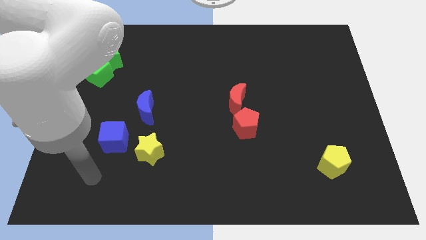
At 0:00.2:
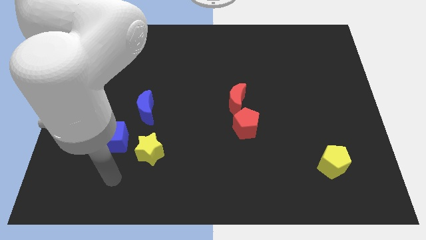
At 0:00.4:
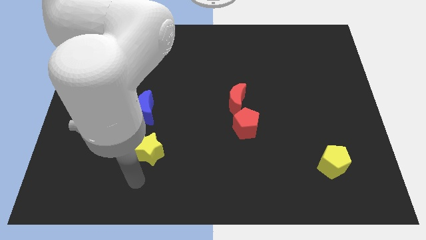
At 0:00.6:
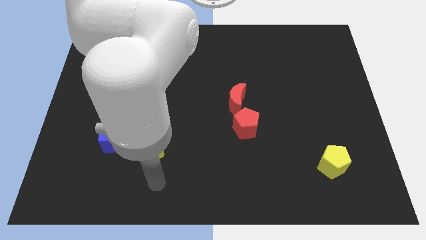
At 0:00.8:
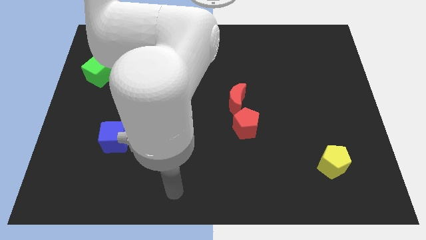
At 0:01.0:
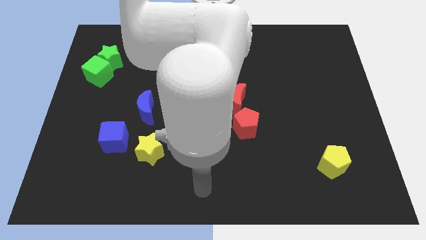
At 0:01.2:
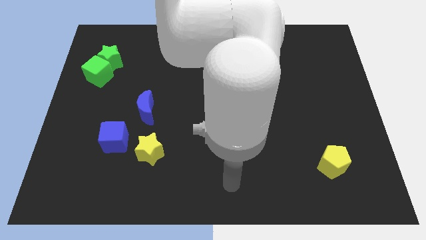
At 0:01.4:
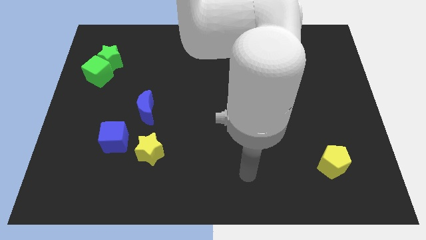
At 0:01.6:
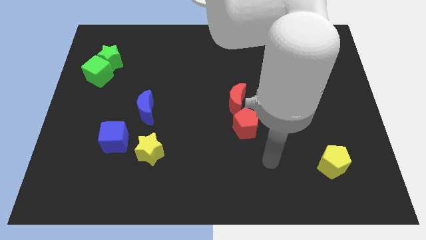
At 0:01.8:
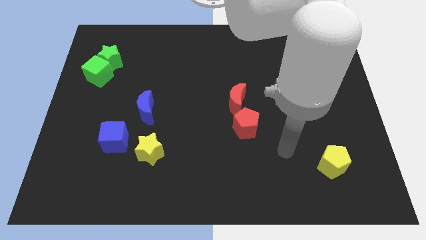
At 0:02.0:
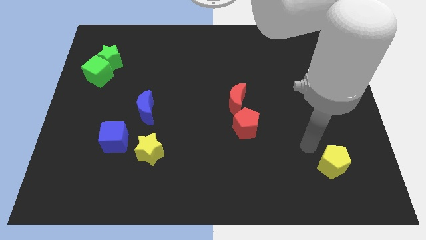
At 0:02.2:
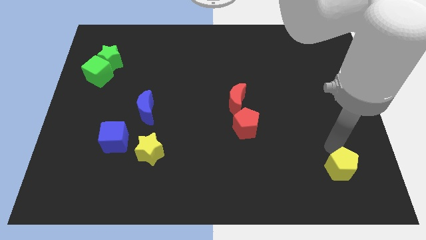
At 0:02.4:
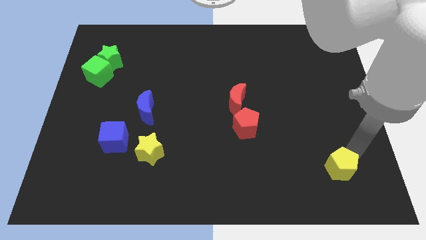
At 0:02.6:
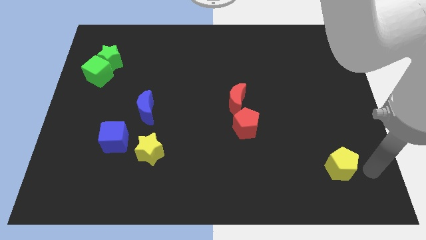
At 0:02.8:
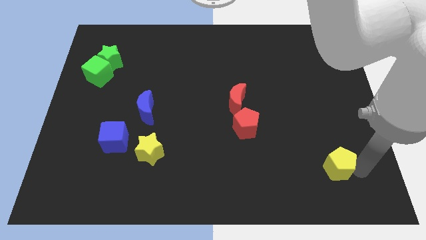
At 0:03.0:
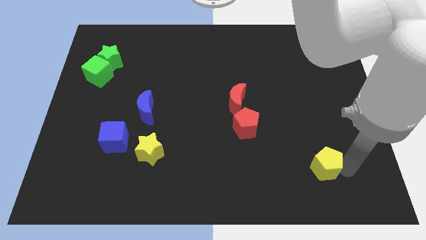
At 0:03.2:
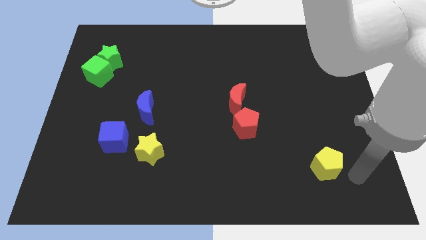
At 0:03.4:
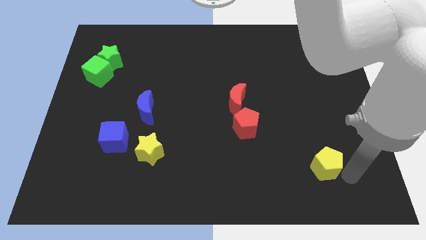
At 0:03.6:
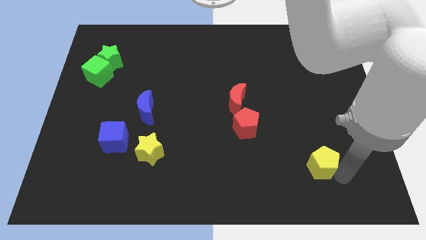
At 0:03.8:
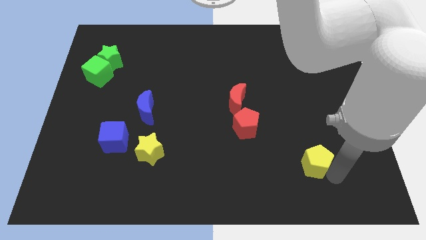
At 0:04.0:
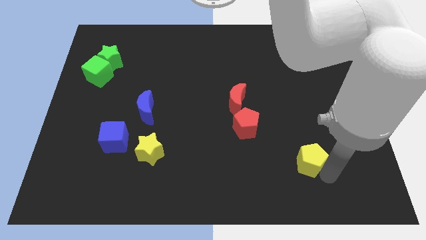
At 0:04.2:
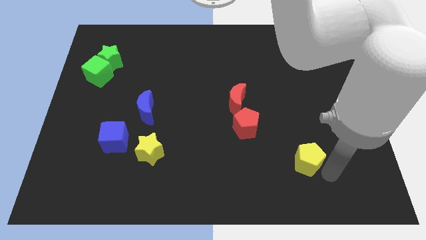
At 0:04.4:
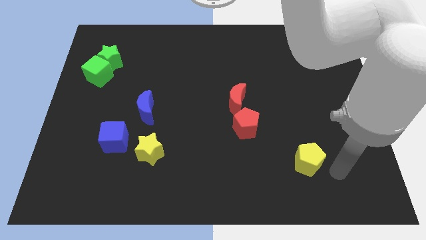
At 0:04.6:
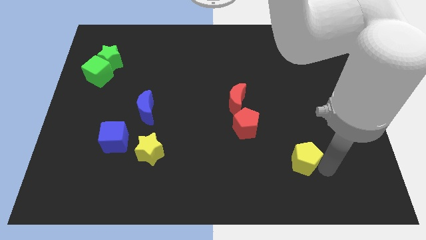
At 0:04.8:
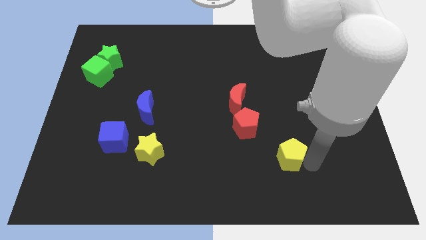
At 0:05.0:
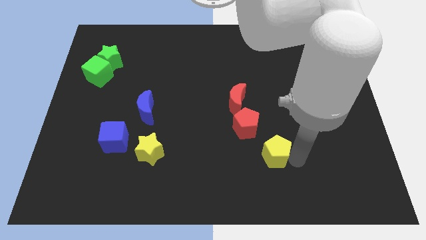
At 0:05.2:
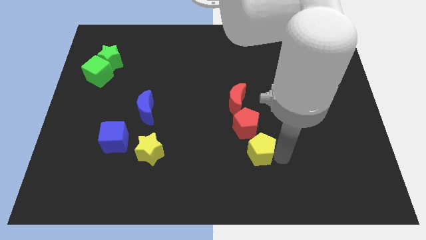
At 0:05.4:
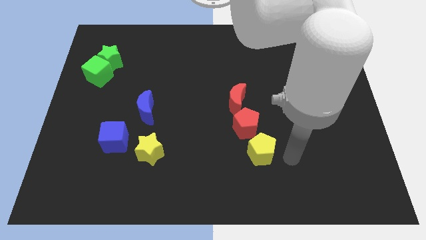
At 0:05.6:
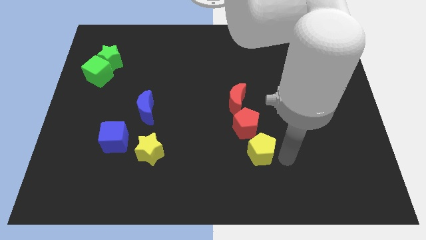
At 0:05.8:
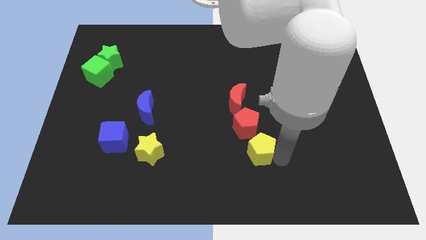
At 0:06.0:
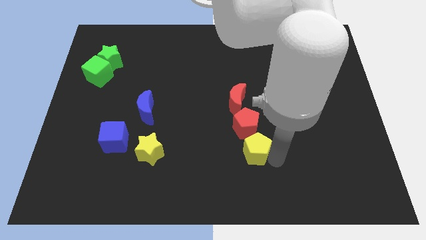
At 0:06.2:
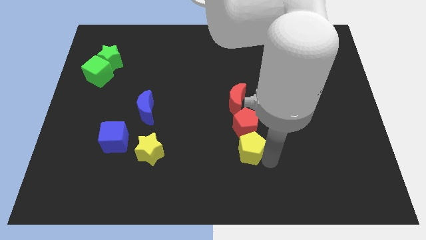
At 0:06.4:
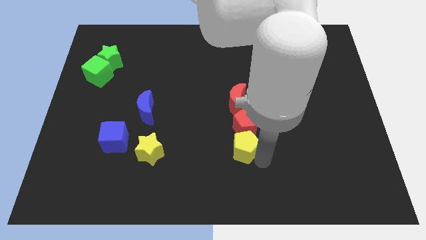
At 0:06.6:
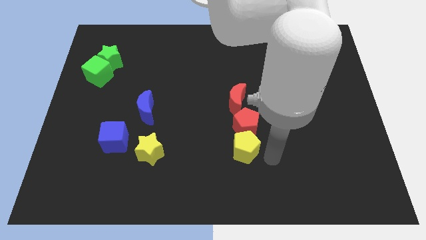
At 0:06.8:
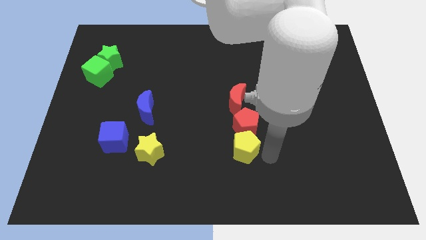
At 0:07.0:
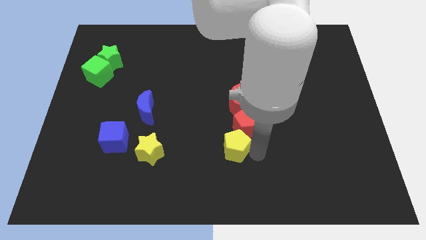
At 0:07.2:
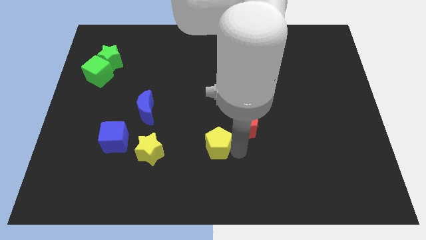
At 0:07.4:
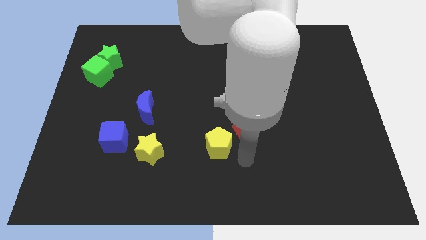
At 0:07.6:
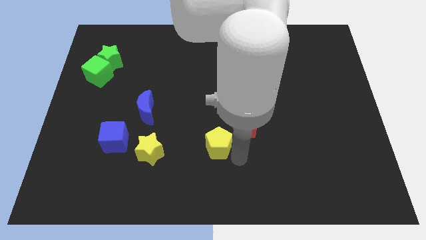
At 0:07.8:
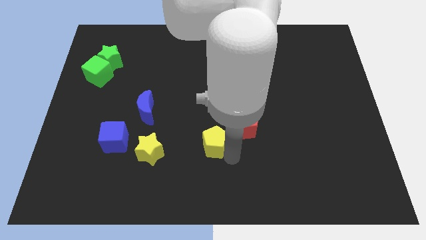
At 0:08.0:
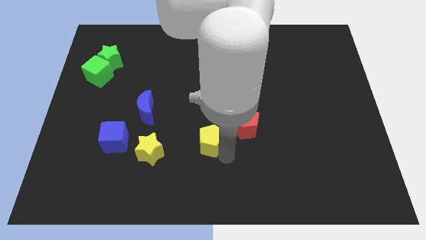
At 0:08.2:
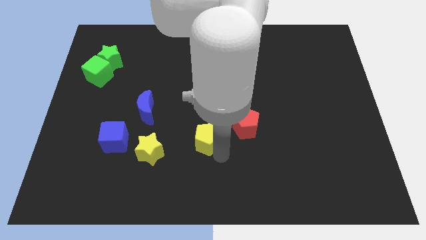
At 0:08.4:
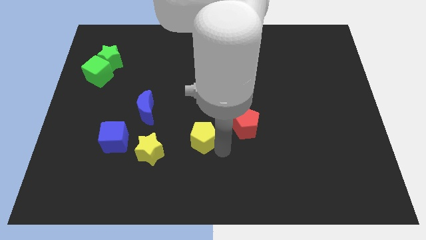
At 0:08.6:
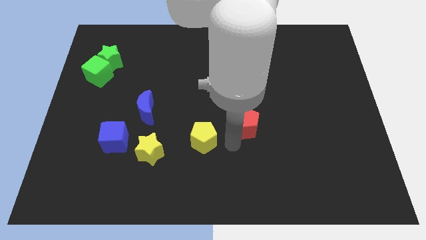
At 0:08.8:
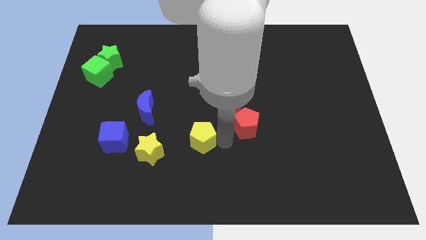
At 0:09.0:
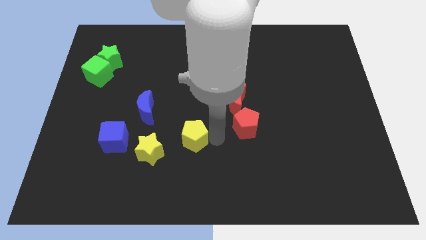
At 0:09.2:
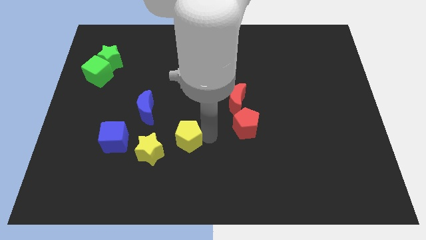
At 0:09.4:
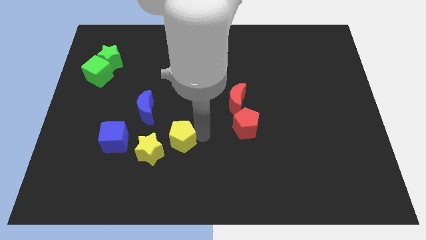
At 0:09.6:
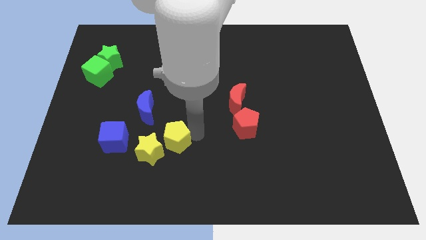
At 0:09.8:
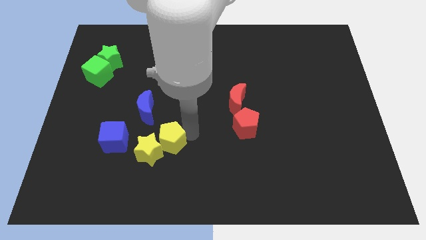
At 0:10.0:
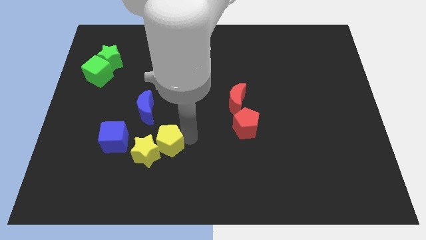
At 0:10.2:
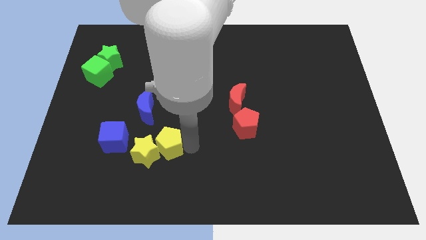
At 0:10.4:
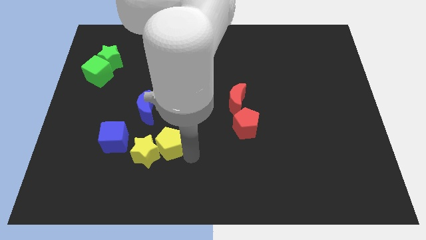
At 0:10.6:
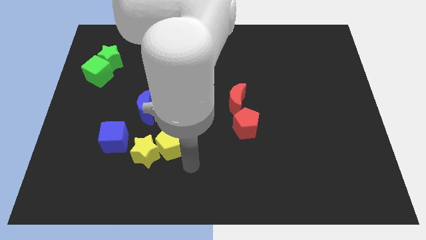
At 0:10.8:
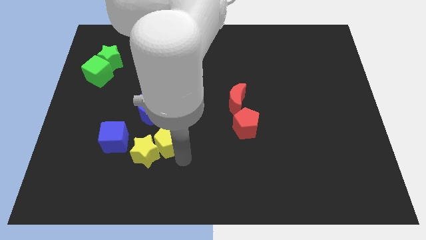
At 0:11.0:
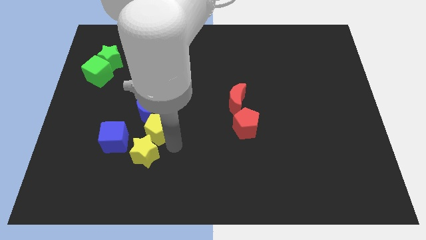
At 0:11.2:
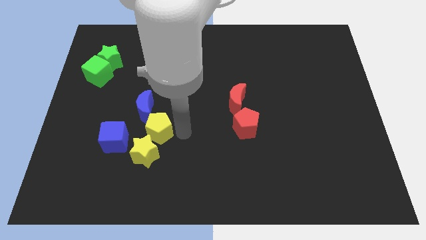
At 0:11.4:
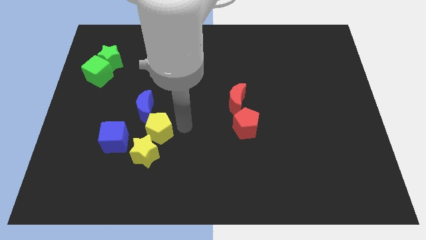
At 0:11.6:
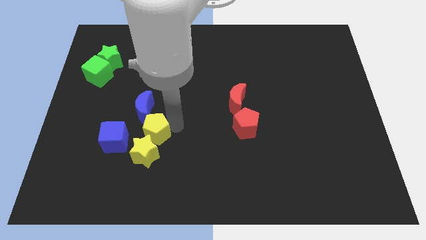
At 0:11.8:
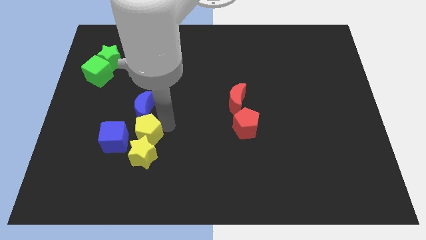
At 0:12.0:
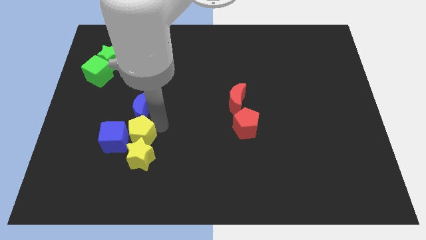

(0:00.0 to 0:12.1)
slide the yellow pentagon towards the blue cube

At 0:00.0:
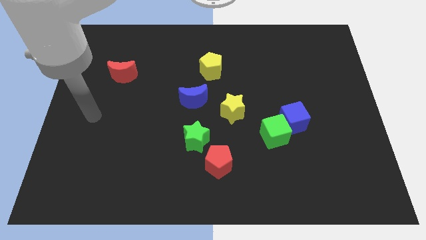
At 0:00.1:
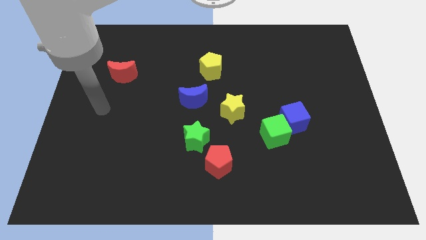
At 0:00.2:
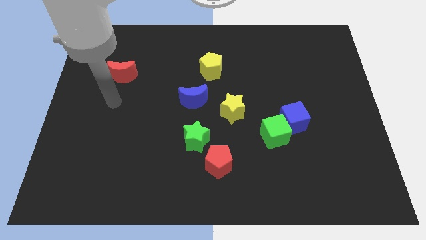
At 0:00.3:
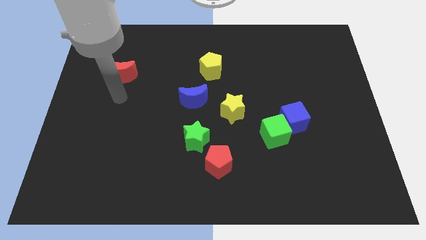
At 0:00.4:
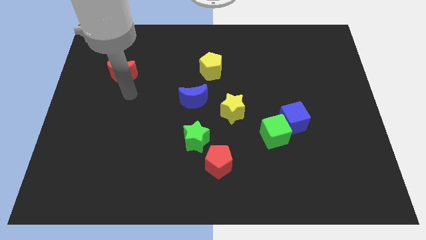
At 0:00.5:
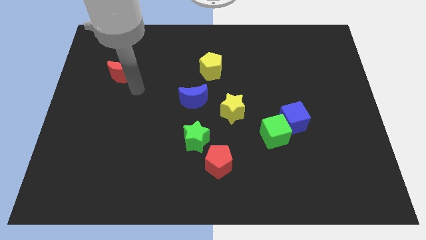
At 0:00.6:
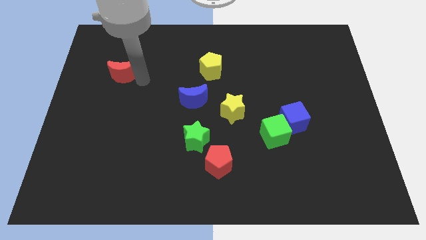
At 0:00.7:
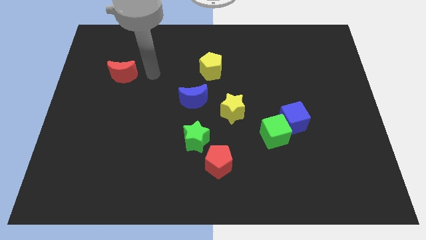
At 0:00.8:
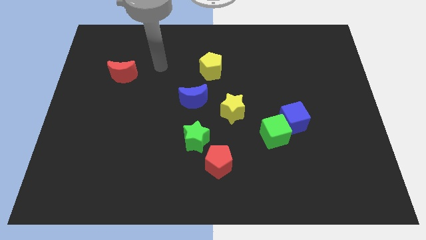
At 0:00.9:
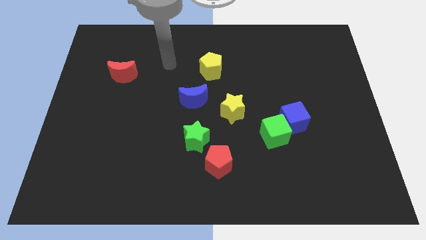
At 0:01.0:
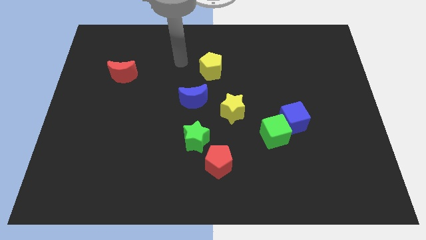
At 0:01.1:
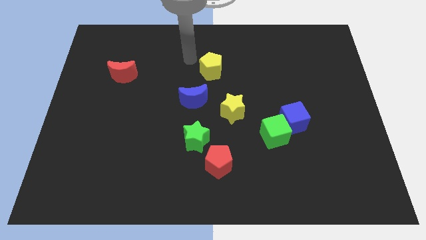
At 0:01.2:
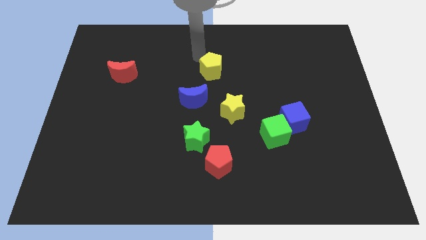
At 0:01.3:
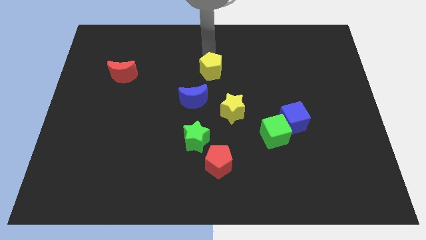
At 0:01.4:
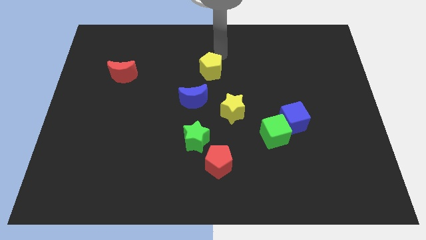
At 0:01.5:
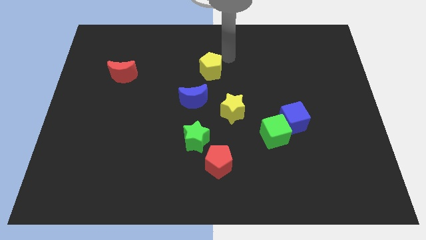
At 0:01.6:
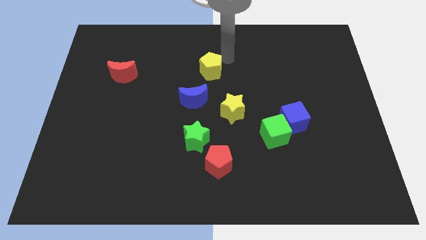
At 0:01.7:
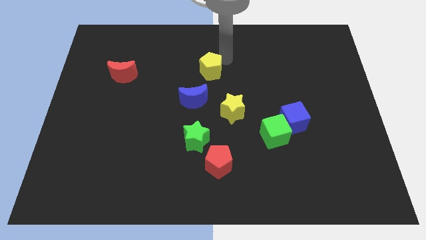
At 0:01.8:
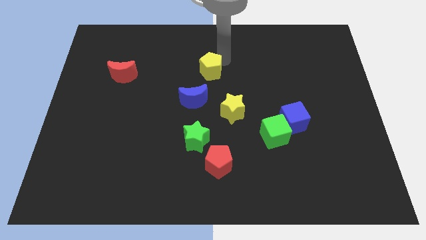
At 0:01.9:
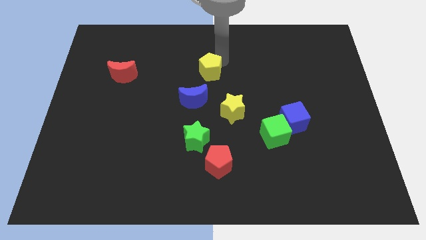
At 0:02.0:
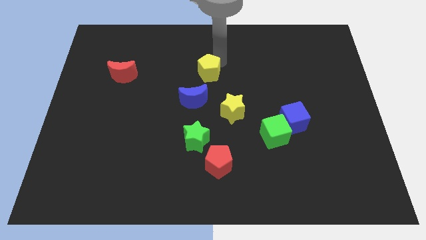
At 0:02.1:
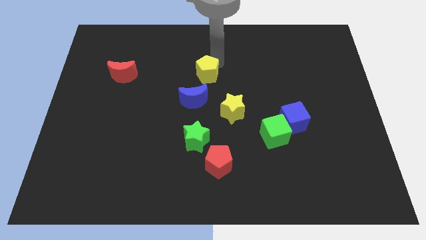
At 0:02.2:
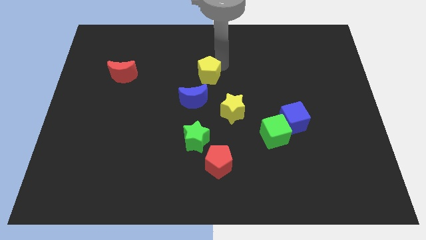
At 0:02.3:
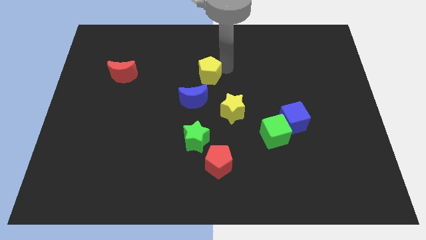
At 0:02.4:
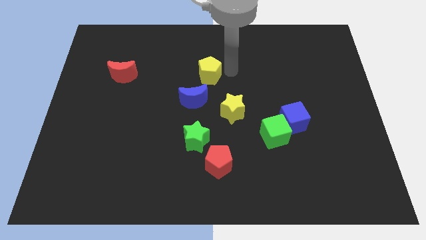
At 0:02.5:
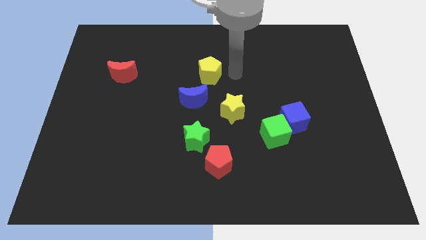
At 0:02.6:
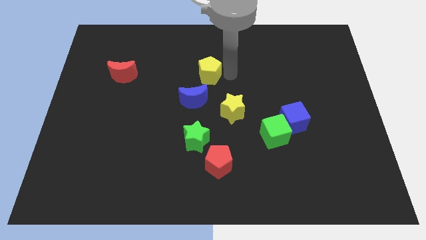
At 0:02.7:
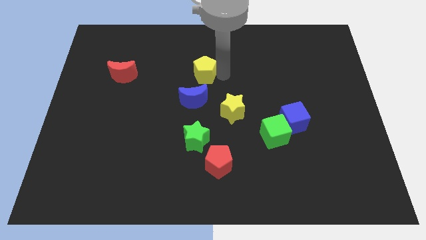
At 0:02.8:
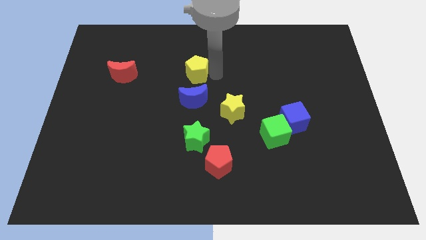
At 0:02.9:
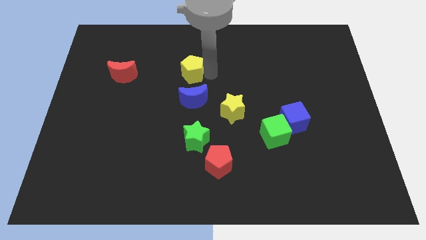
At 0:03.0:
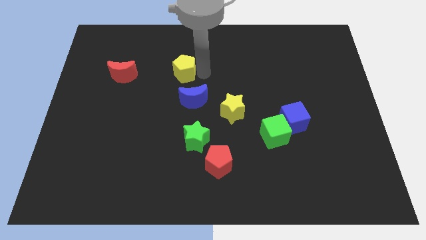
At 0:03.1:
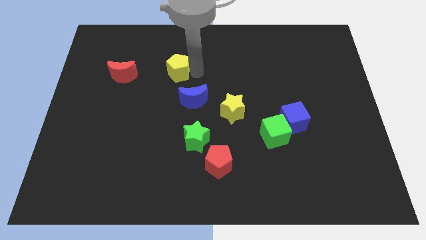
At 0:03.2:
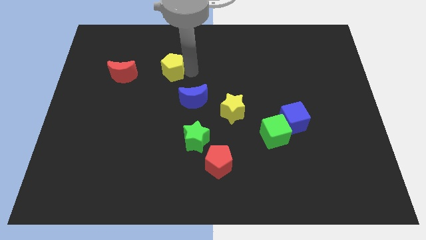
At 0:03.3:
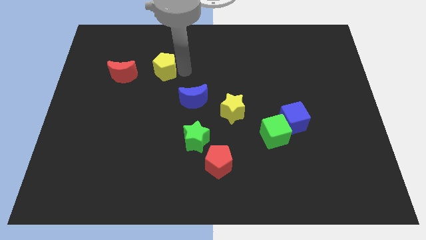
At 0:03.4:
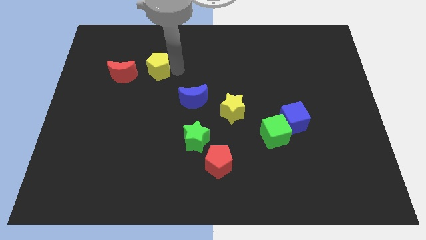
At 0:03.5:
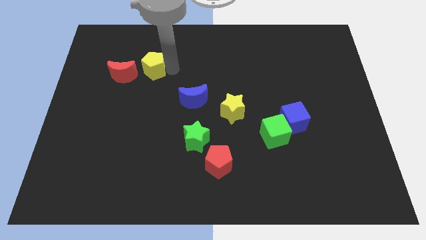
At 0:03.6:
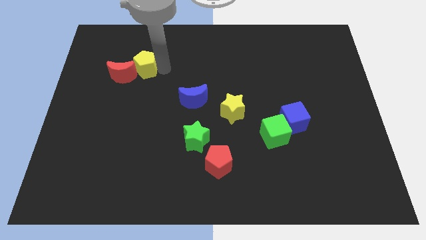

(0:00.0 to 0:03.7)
push the yellow pentagon to the red moon
